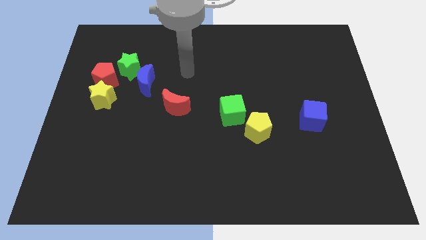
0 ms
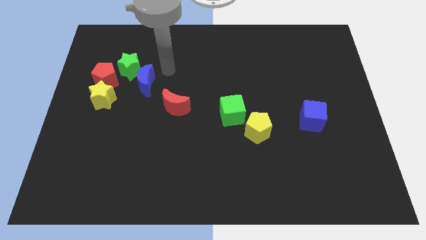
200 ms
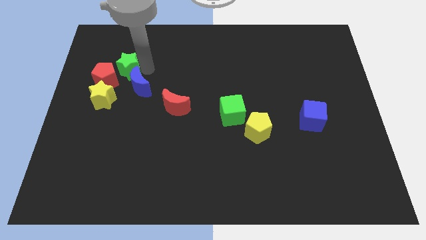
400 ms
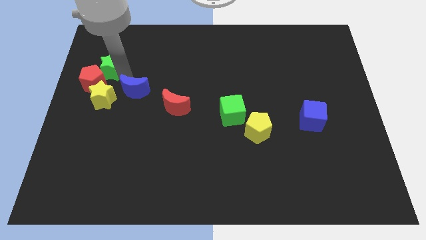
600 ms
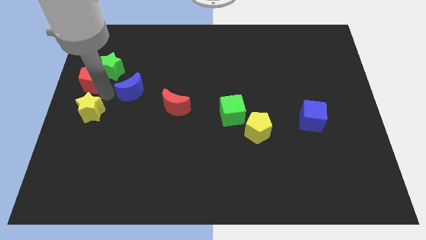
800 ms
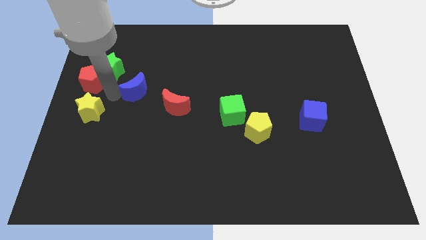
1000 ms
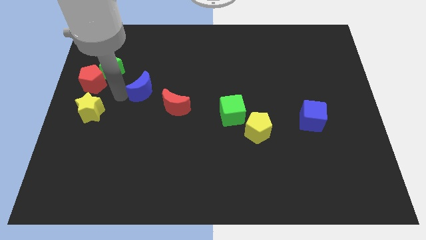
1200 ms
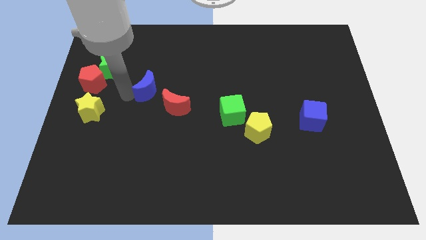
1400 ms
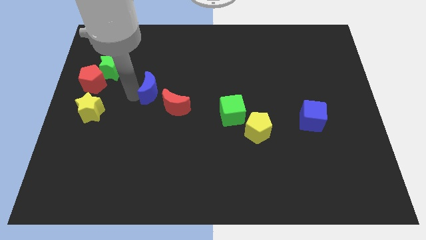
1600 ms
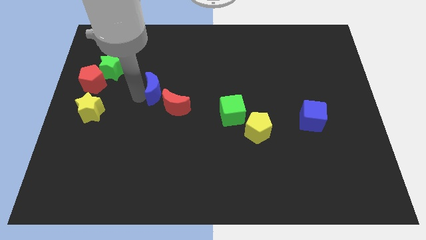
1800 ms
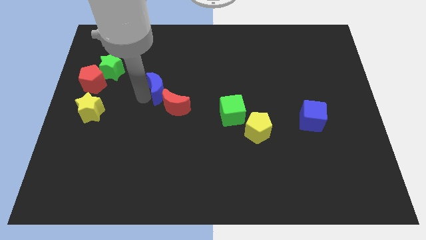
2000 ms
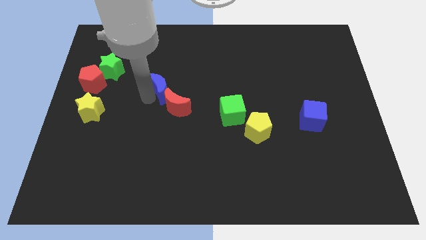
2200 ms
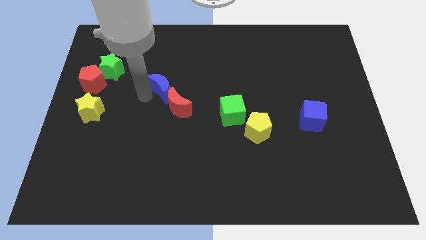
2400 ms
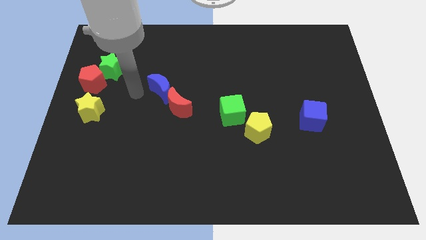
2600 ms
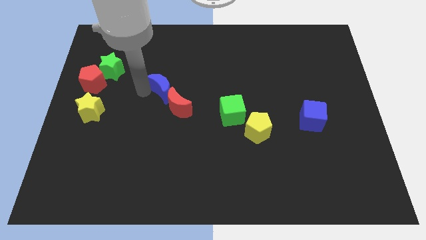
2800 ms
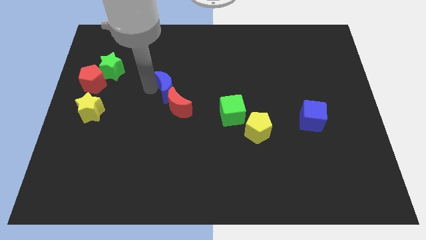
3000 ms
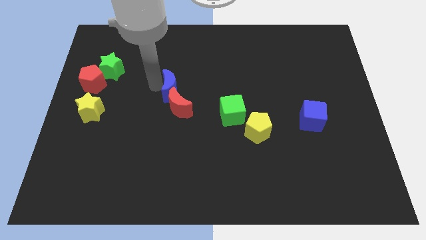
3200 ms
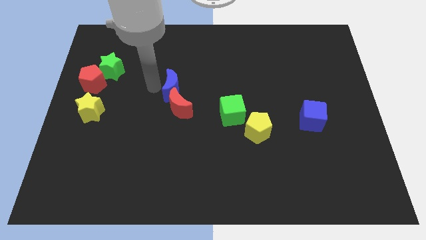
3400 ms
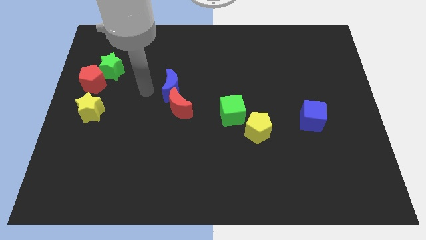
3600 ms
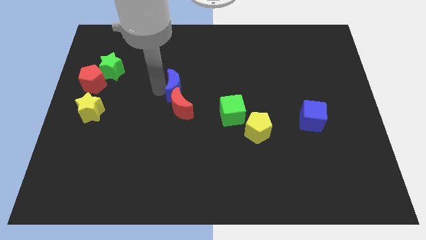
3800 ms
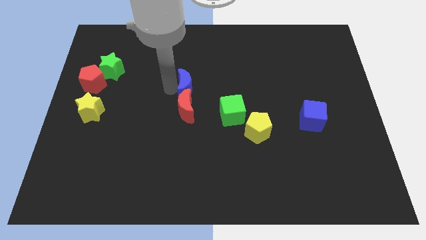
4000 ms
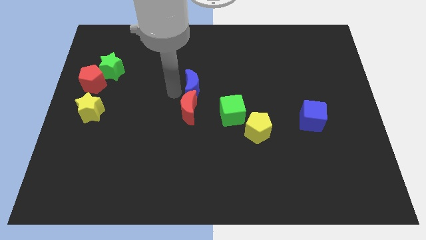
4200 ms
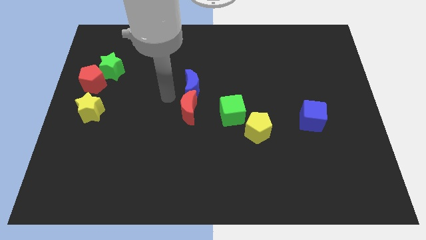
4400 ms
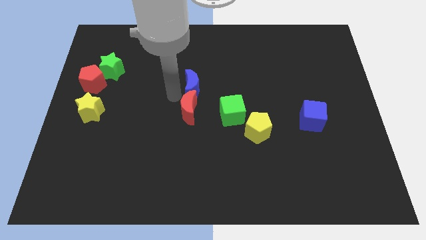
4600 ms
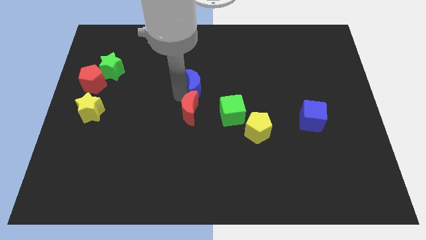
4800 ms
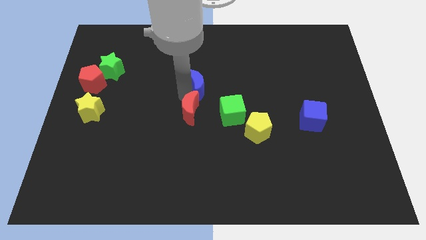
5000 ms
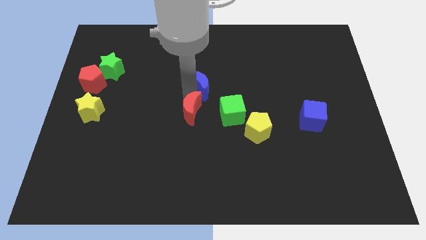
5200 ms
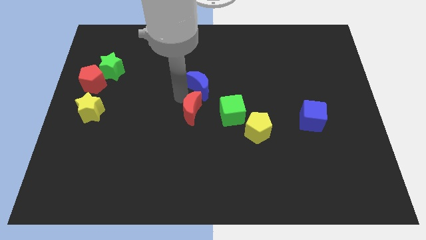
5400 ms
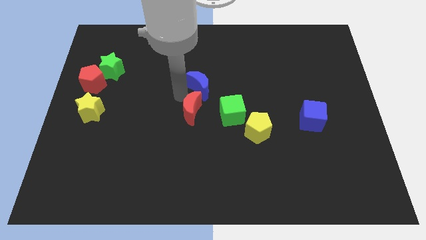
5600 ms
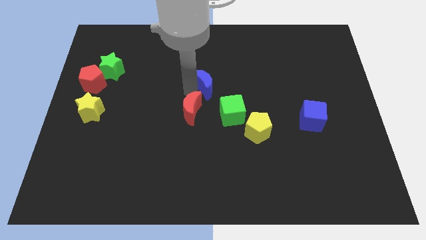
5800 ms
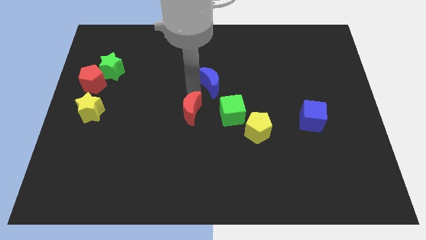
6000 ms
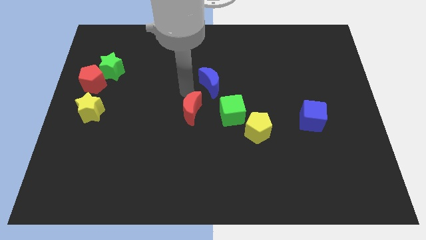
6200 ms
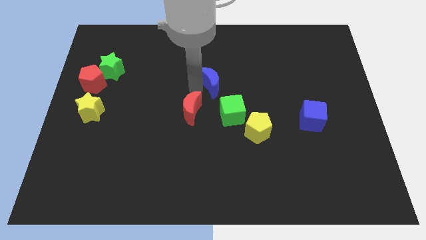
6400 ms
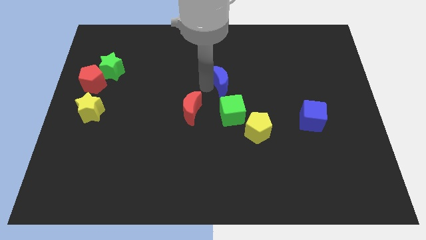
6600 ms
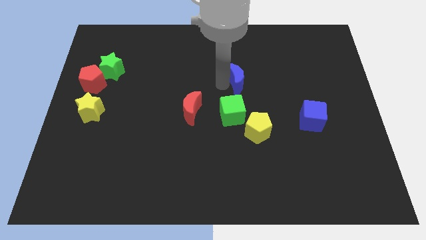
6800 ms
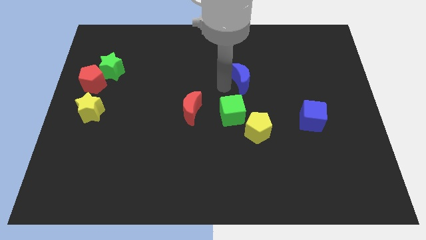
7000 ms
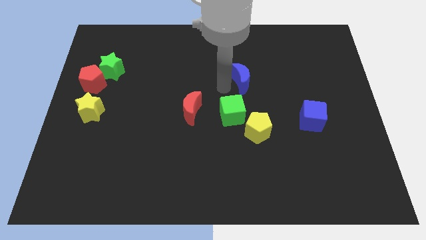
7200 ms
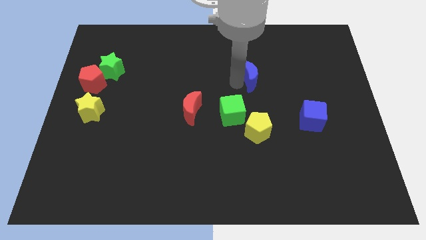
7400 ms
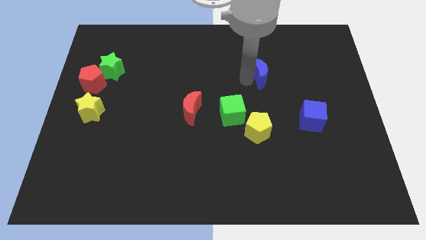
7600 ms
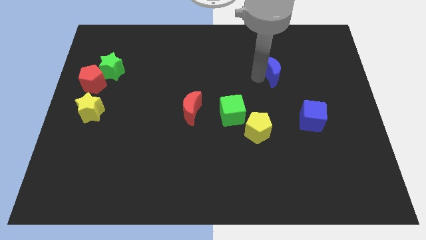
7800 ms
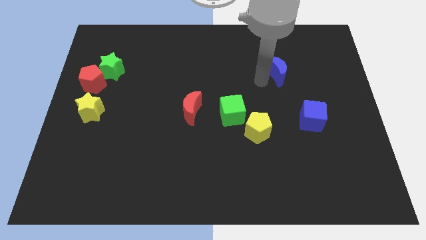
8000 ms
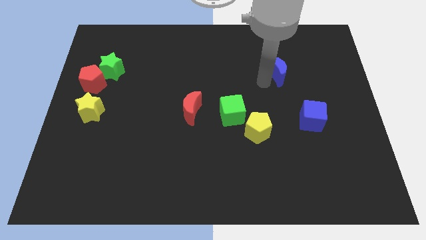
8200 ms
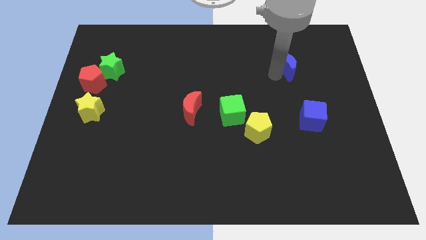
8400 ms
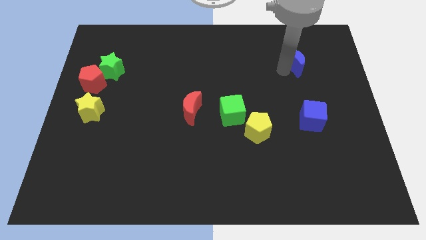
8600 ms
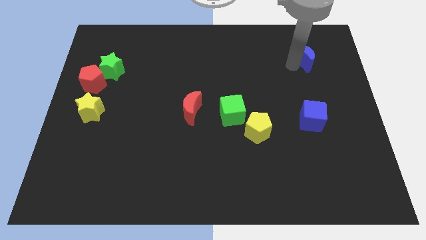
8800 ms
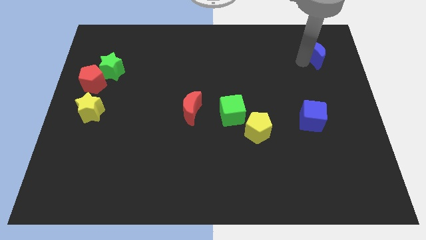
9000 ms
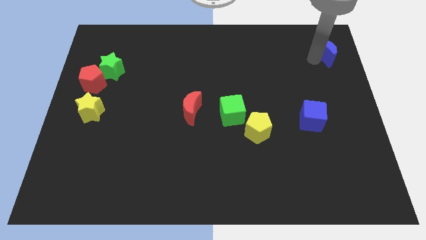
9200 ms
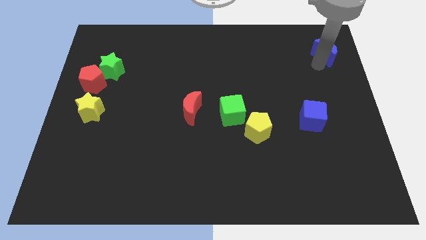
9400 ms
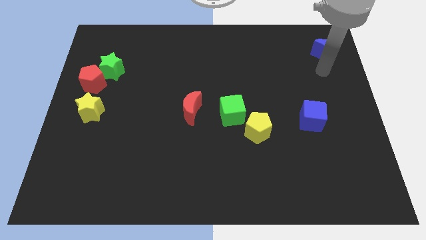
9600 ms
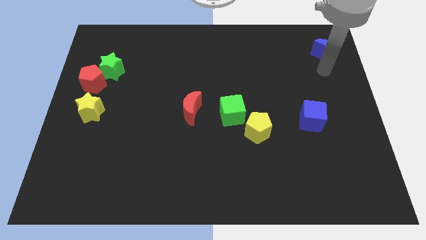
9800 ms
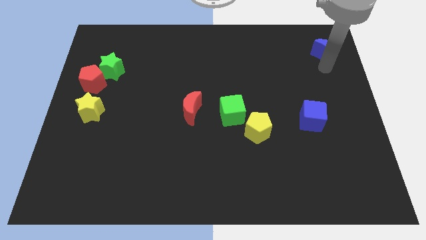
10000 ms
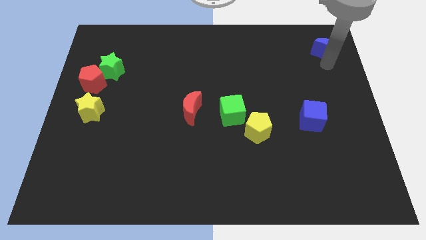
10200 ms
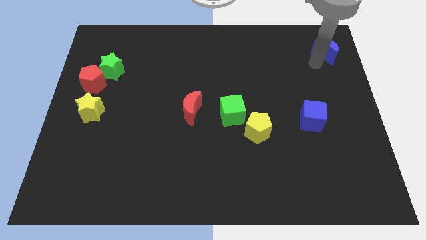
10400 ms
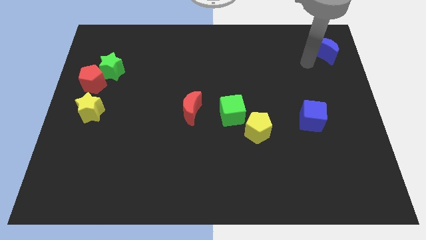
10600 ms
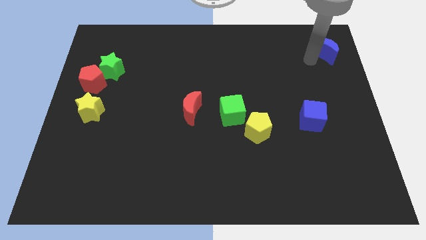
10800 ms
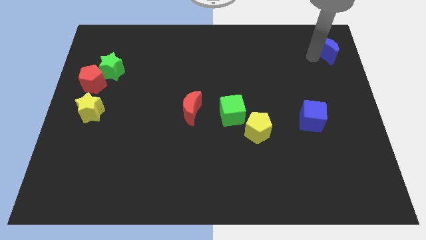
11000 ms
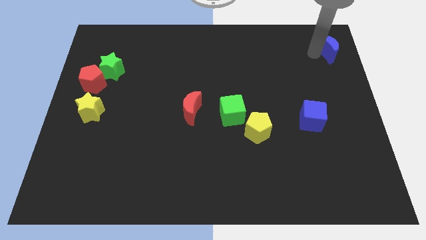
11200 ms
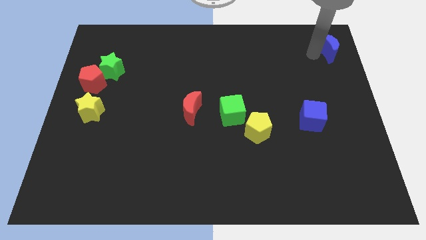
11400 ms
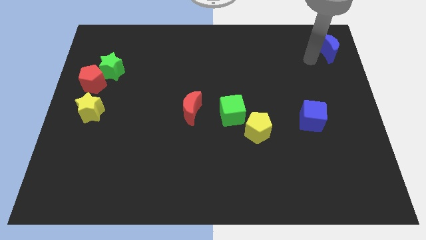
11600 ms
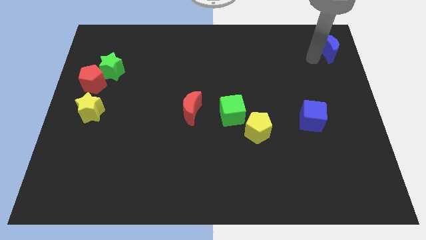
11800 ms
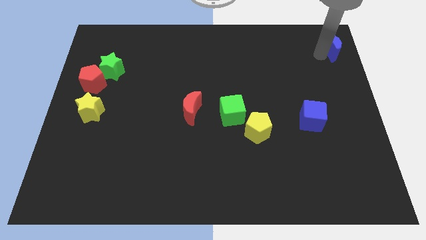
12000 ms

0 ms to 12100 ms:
push the blue moon to the top right of the board
